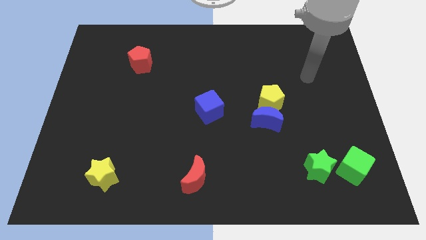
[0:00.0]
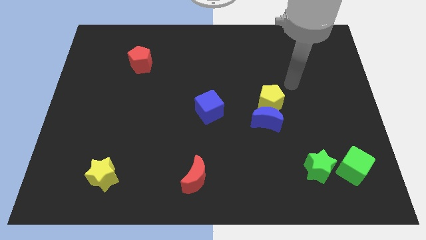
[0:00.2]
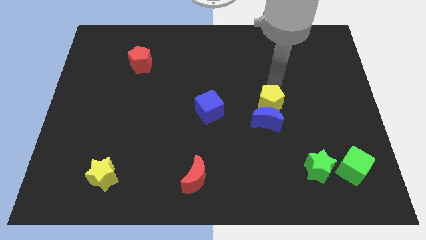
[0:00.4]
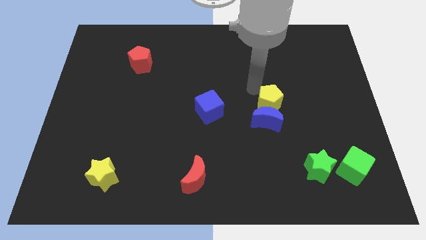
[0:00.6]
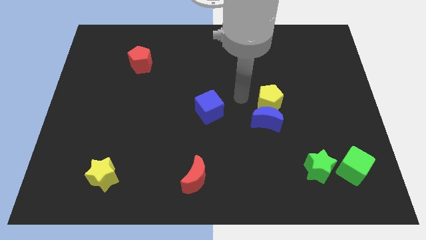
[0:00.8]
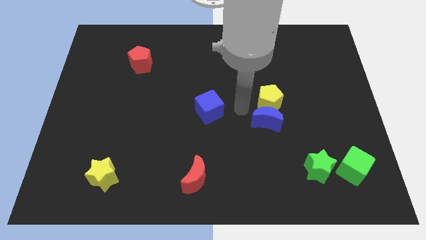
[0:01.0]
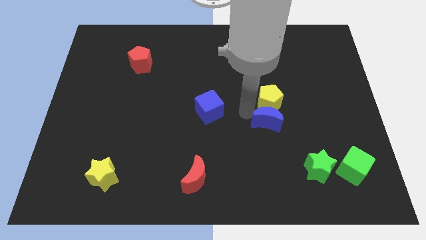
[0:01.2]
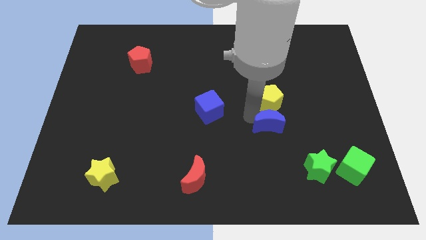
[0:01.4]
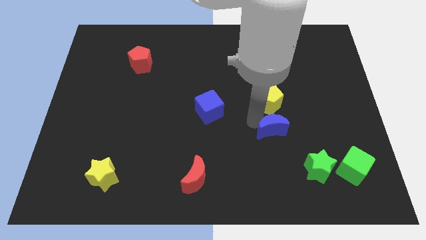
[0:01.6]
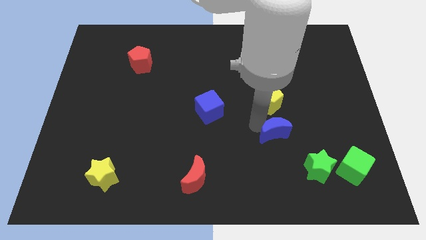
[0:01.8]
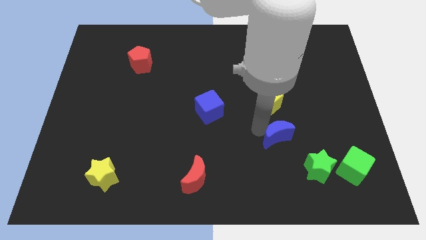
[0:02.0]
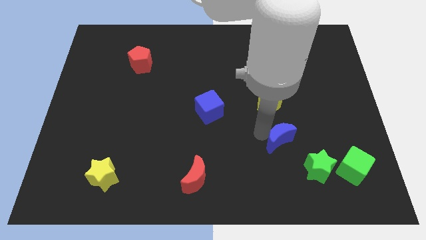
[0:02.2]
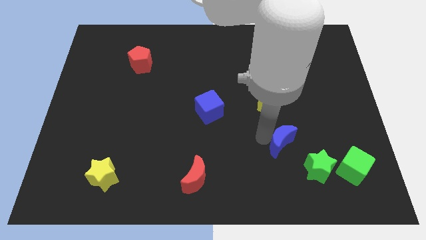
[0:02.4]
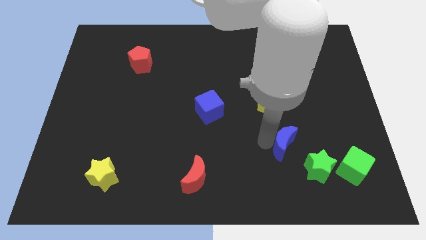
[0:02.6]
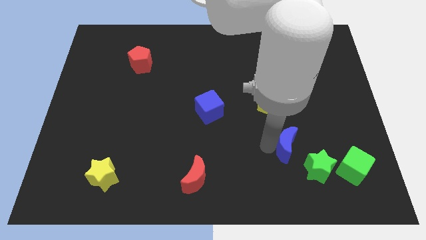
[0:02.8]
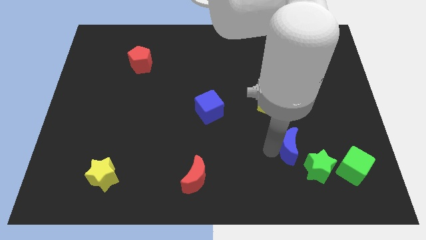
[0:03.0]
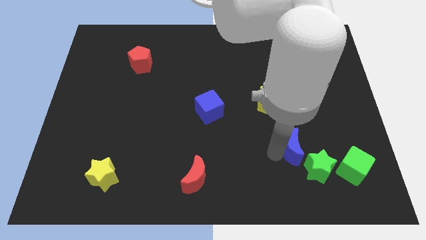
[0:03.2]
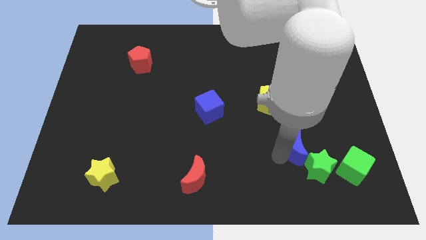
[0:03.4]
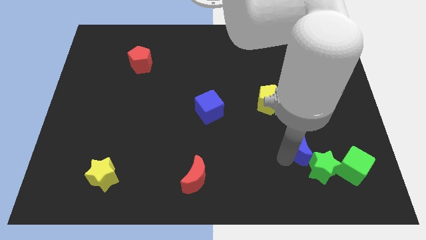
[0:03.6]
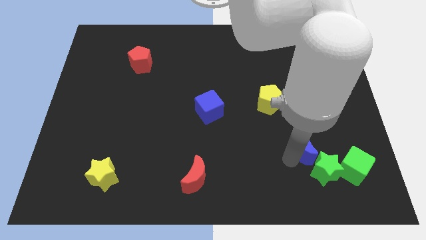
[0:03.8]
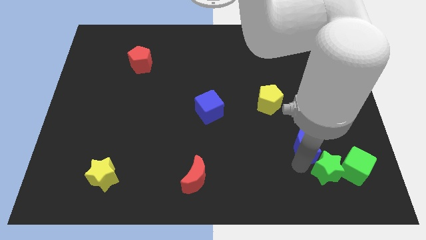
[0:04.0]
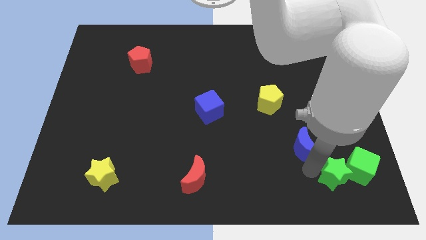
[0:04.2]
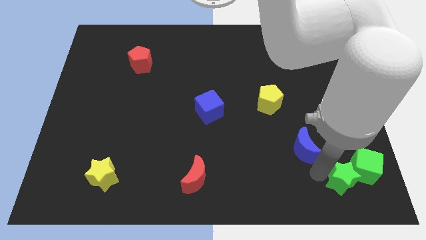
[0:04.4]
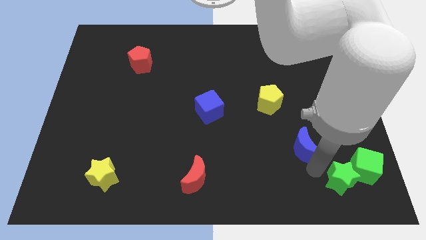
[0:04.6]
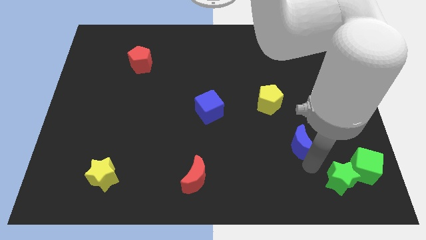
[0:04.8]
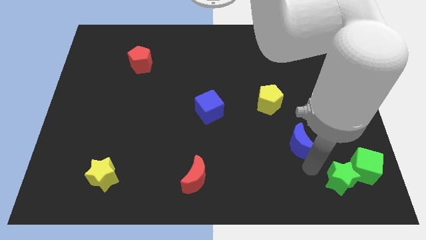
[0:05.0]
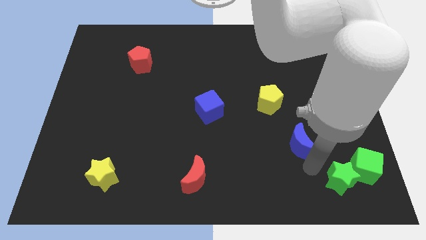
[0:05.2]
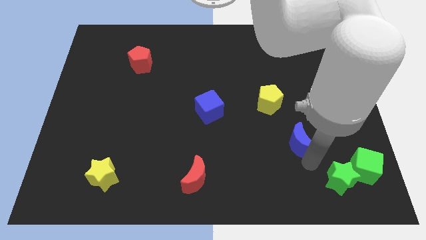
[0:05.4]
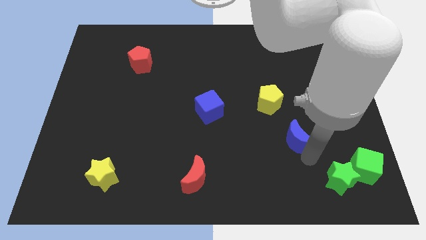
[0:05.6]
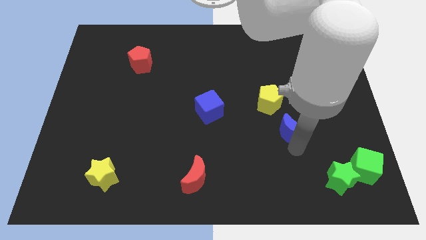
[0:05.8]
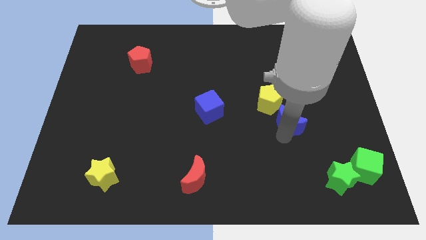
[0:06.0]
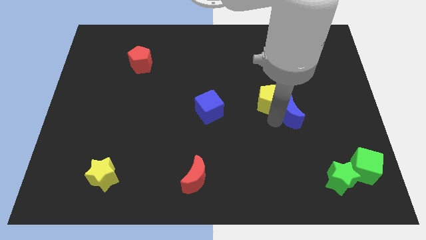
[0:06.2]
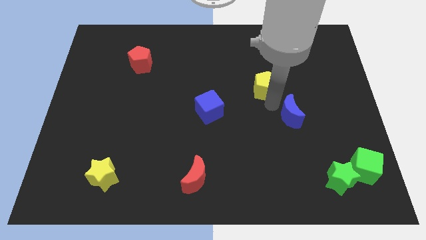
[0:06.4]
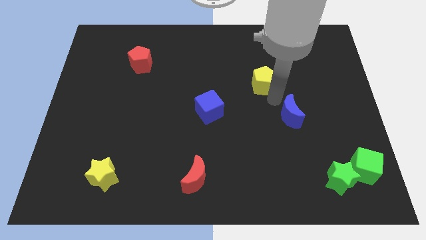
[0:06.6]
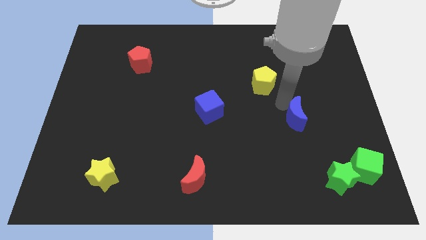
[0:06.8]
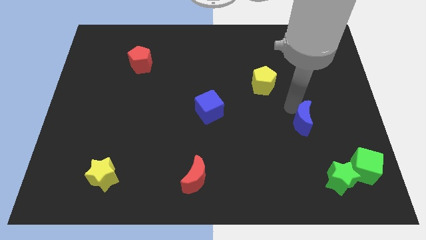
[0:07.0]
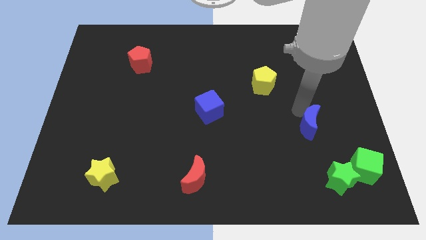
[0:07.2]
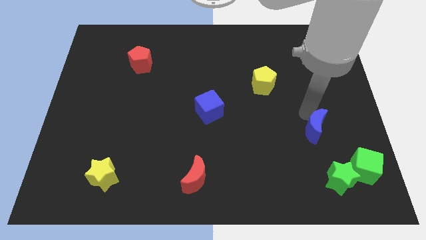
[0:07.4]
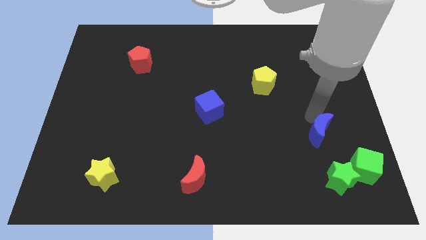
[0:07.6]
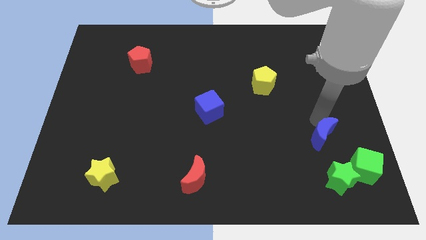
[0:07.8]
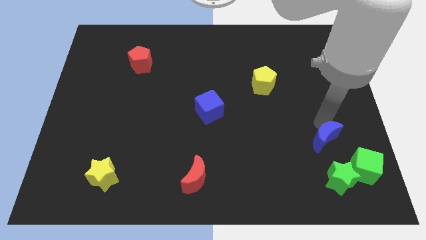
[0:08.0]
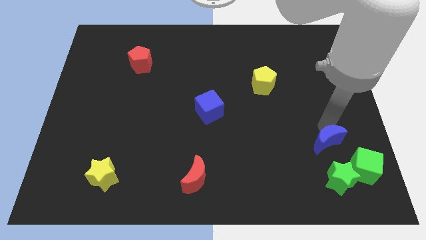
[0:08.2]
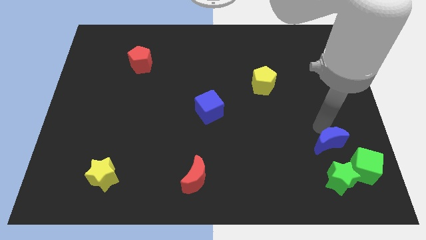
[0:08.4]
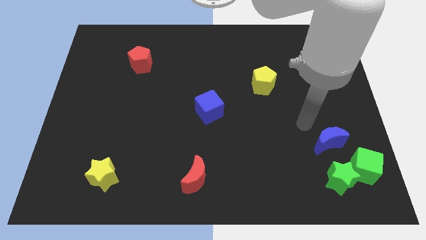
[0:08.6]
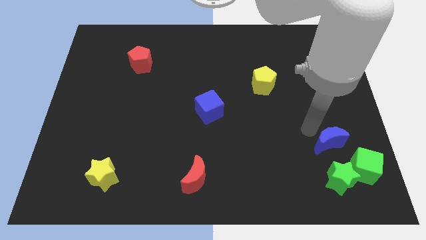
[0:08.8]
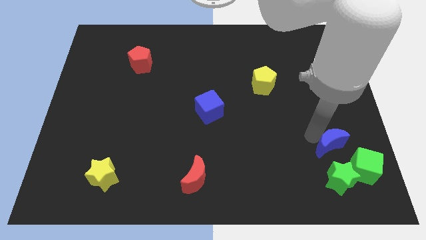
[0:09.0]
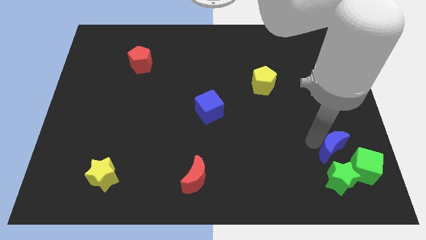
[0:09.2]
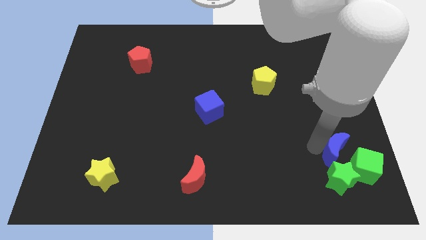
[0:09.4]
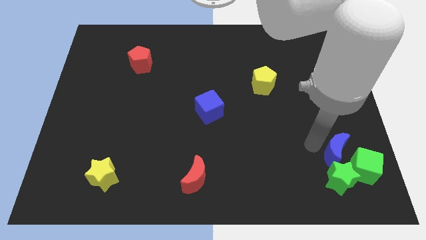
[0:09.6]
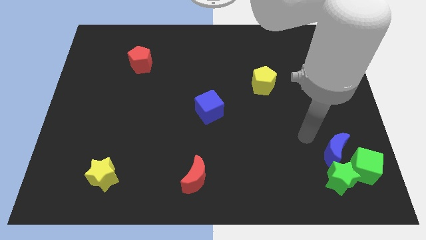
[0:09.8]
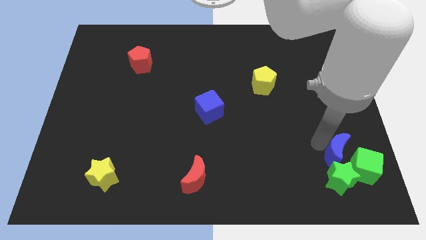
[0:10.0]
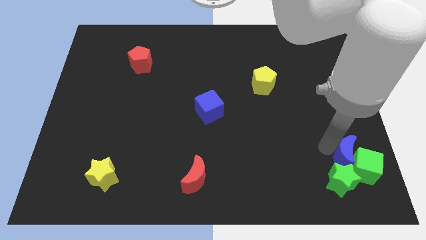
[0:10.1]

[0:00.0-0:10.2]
put the blue moon towards the green cube

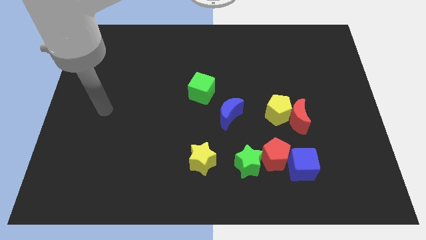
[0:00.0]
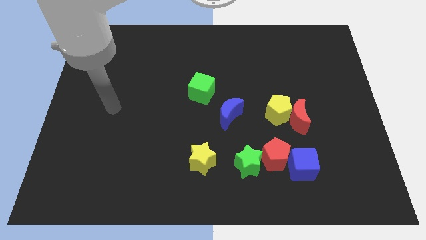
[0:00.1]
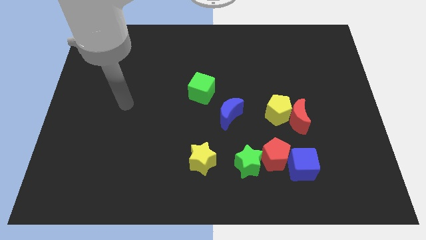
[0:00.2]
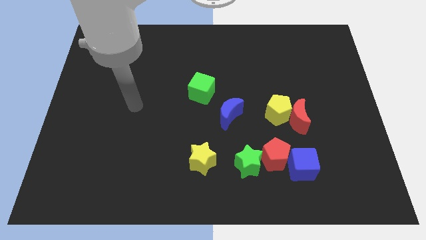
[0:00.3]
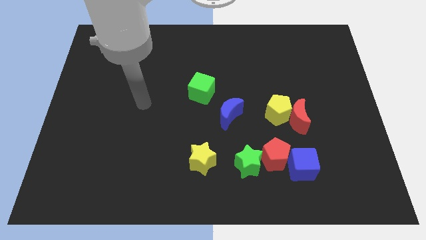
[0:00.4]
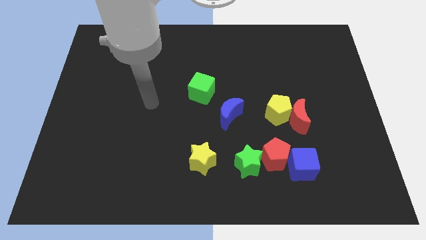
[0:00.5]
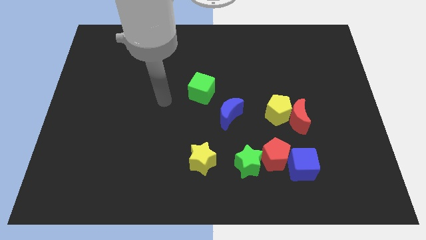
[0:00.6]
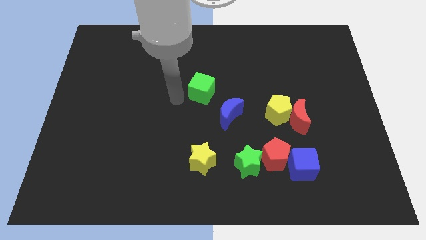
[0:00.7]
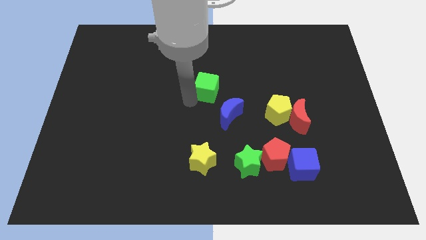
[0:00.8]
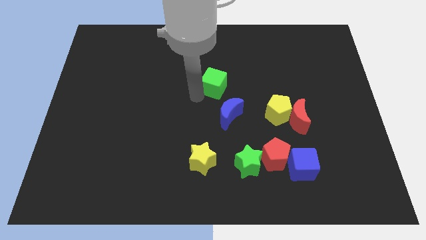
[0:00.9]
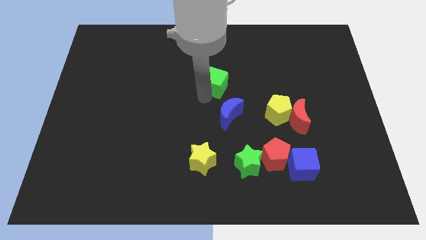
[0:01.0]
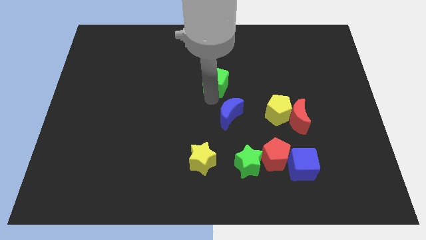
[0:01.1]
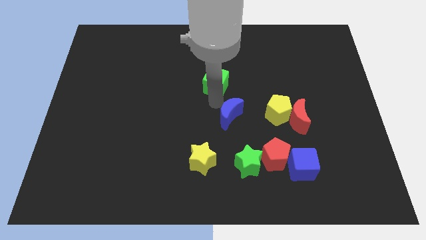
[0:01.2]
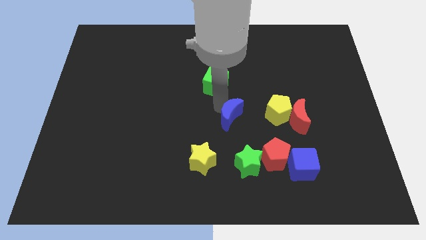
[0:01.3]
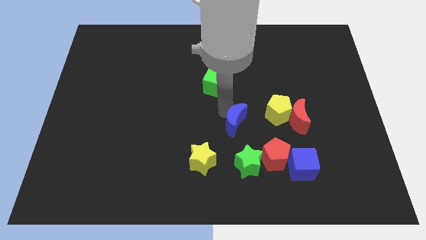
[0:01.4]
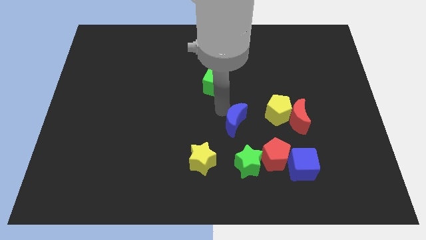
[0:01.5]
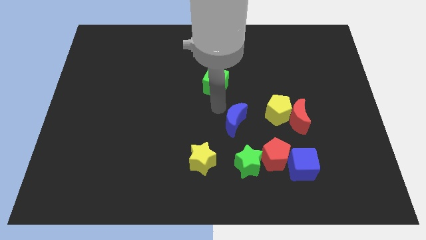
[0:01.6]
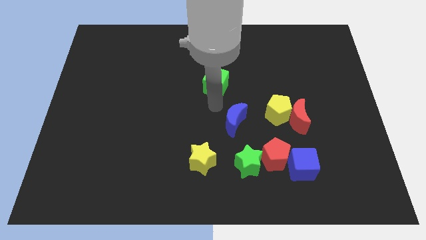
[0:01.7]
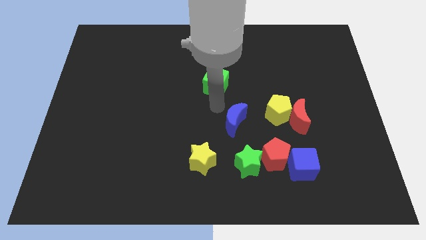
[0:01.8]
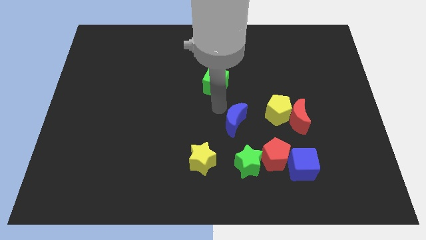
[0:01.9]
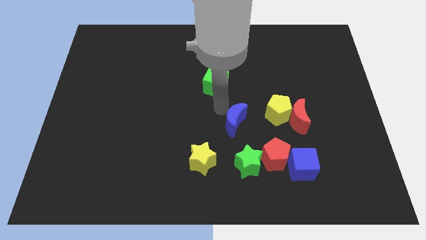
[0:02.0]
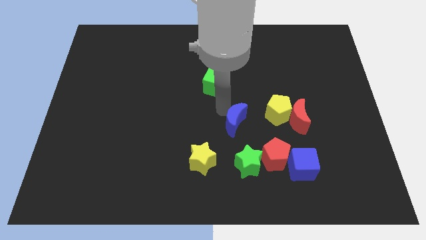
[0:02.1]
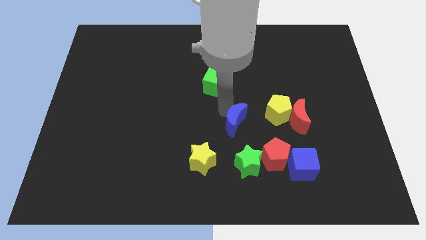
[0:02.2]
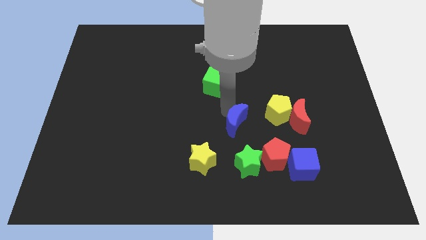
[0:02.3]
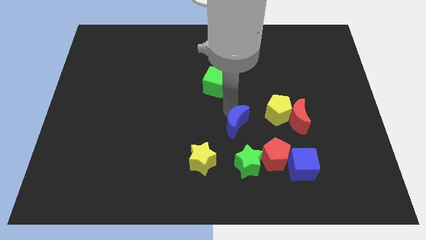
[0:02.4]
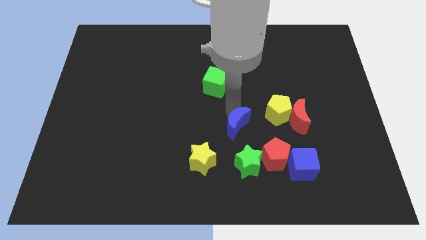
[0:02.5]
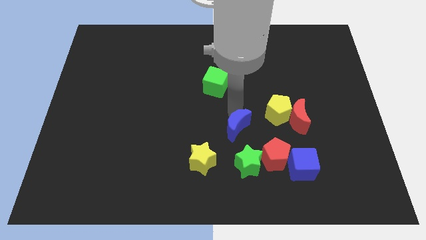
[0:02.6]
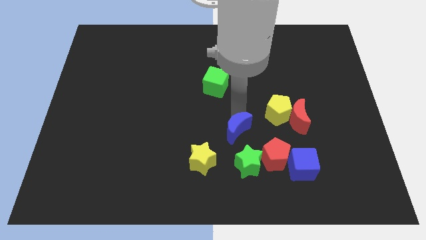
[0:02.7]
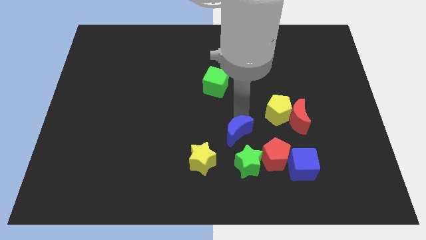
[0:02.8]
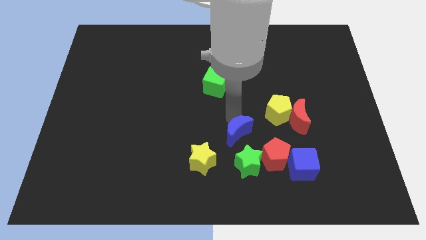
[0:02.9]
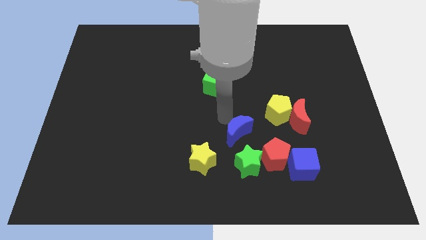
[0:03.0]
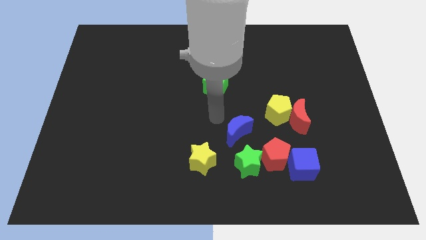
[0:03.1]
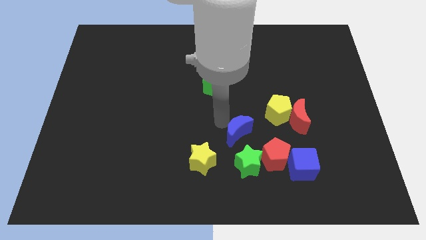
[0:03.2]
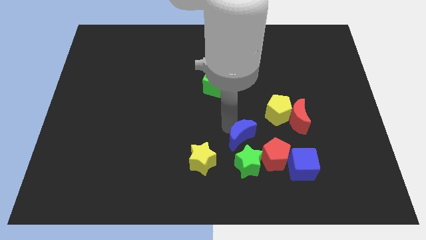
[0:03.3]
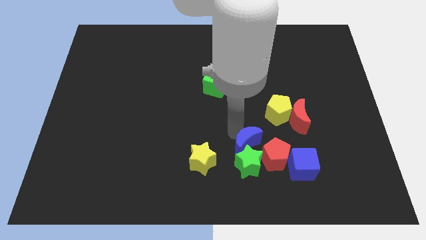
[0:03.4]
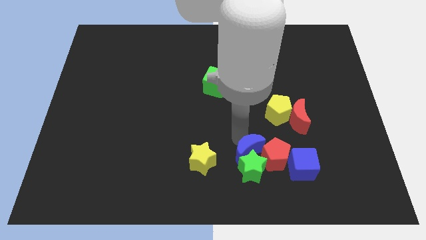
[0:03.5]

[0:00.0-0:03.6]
move the blue moon close to the red pentagon
